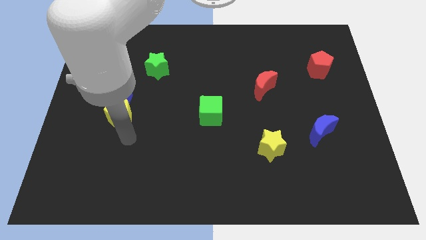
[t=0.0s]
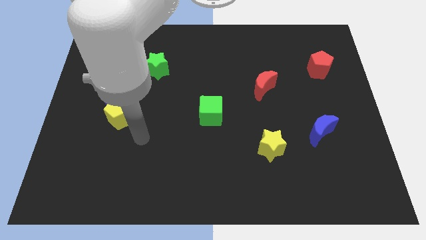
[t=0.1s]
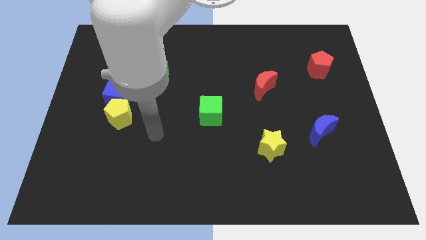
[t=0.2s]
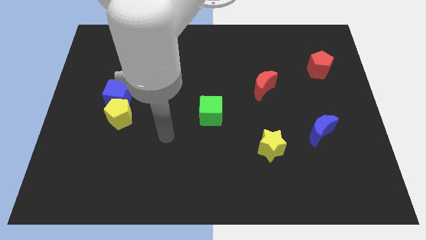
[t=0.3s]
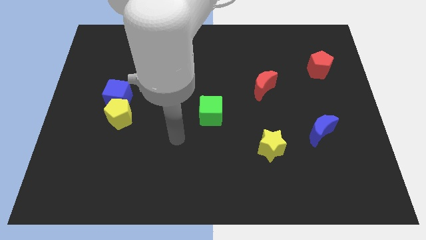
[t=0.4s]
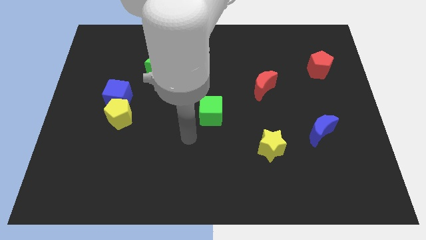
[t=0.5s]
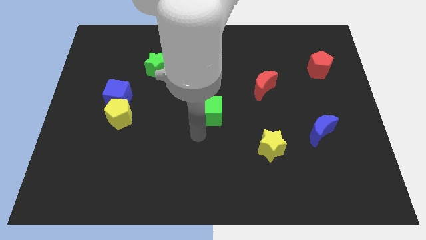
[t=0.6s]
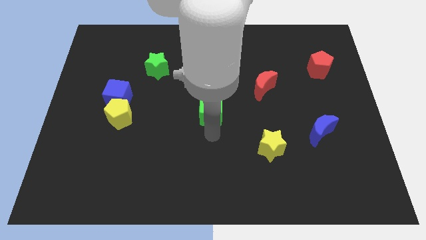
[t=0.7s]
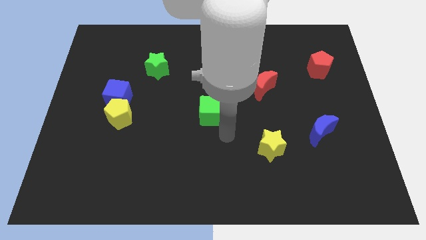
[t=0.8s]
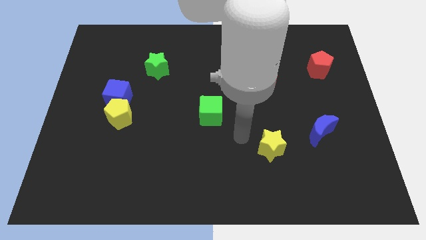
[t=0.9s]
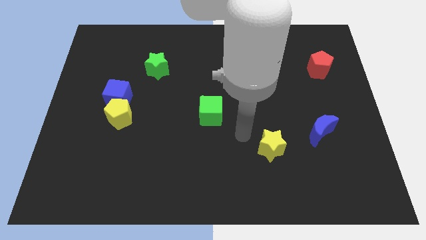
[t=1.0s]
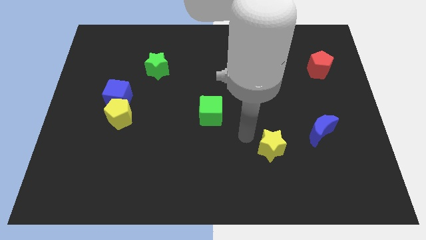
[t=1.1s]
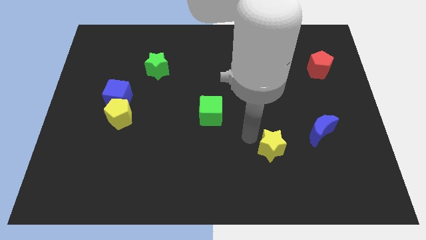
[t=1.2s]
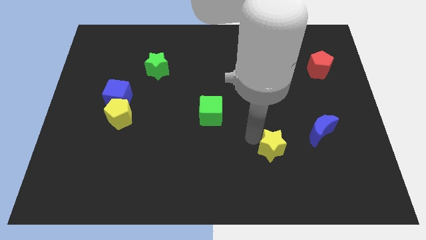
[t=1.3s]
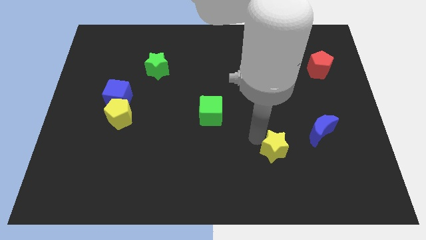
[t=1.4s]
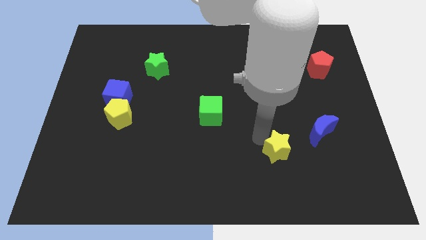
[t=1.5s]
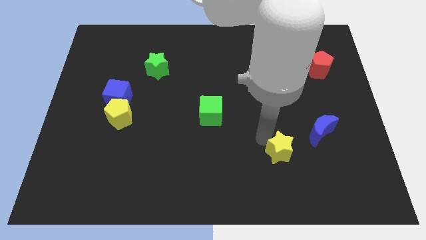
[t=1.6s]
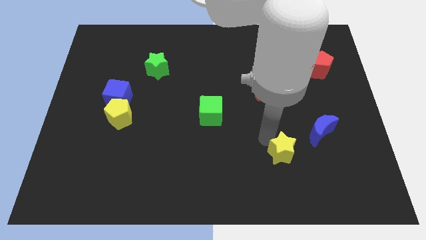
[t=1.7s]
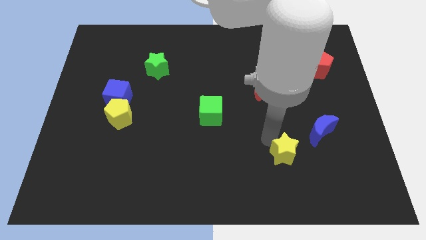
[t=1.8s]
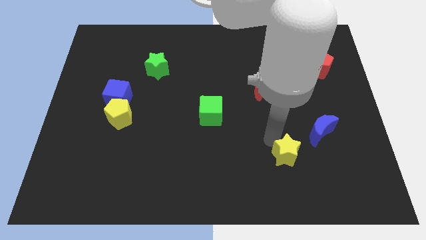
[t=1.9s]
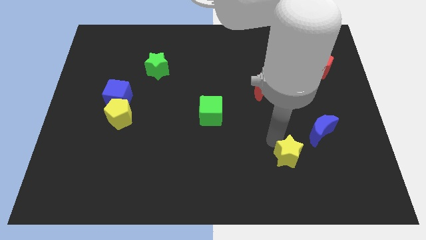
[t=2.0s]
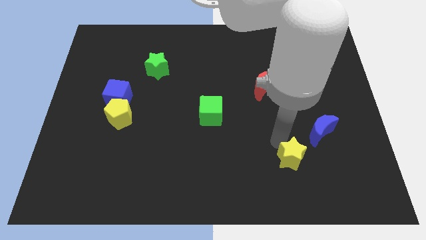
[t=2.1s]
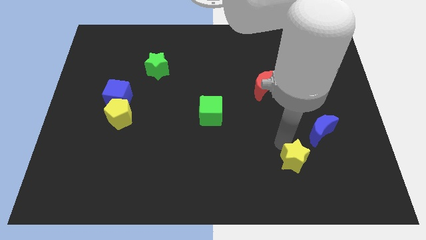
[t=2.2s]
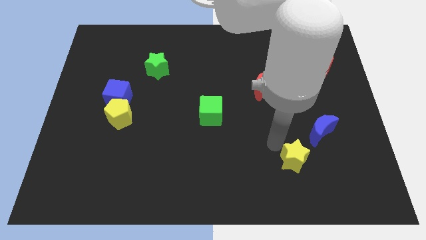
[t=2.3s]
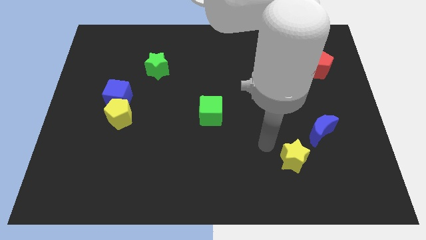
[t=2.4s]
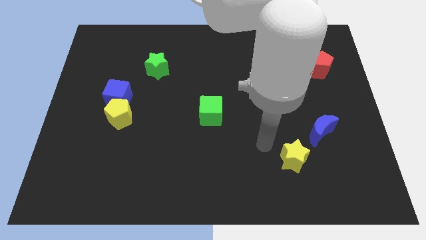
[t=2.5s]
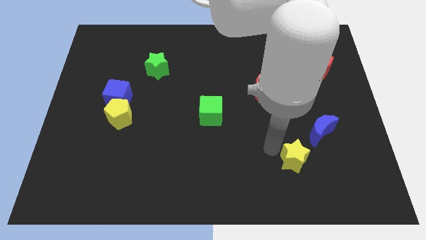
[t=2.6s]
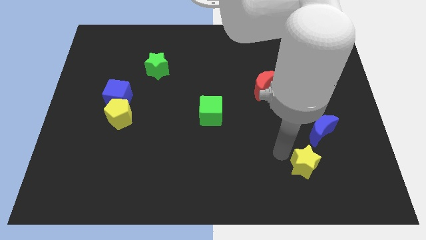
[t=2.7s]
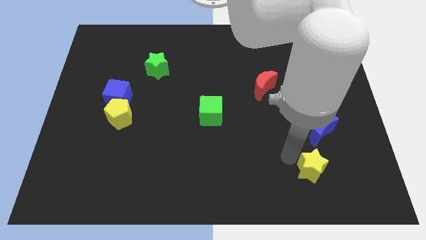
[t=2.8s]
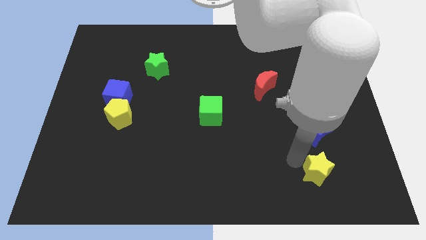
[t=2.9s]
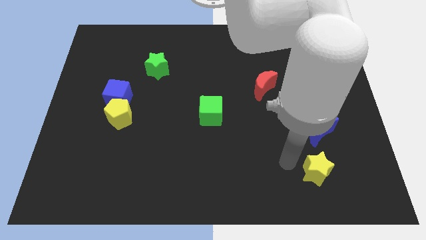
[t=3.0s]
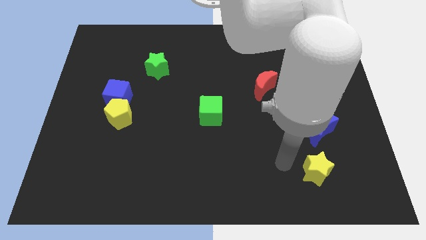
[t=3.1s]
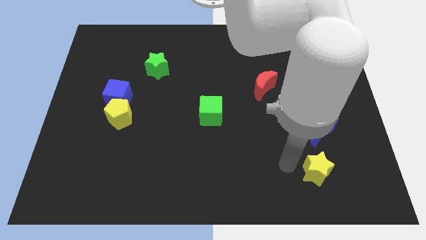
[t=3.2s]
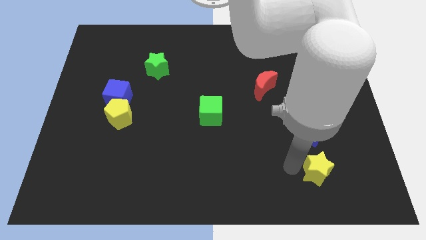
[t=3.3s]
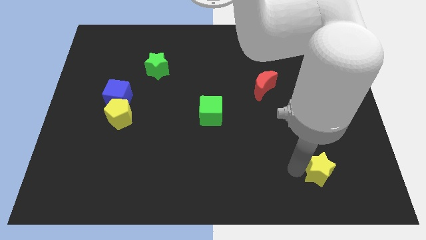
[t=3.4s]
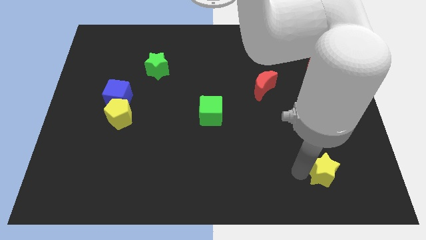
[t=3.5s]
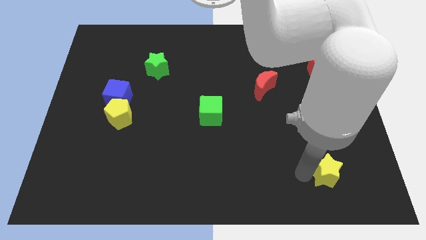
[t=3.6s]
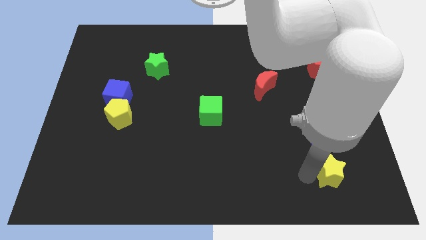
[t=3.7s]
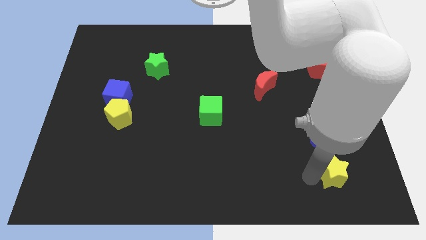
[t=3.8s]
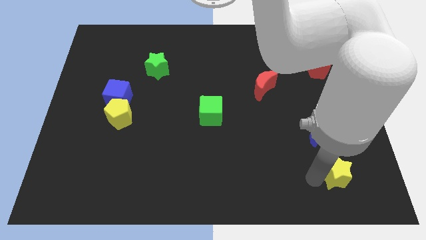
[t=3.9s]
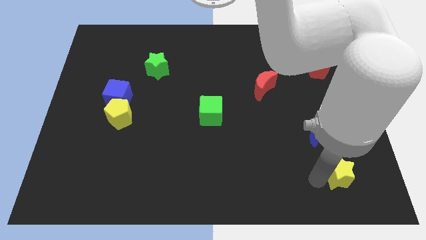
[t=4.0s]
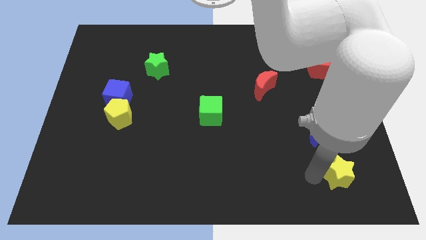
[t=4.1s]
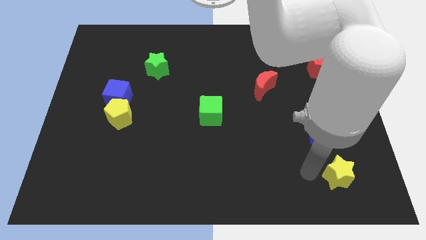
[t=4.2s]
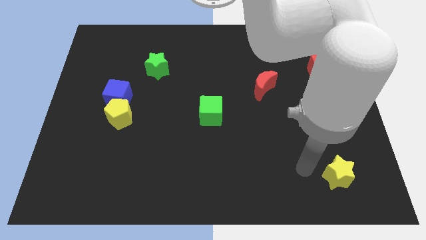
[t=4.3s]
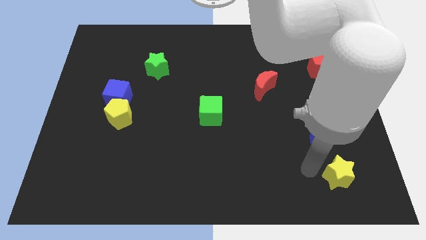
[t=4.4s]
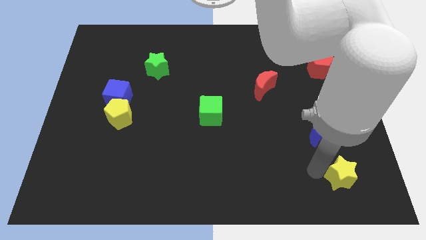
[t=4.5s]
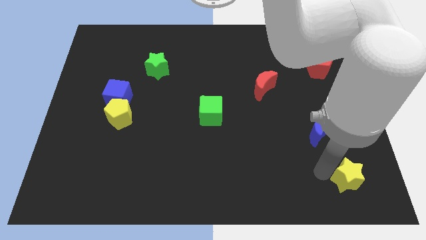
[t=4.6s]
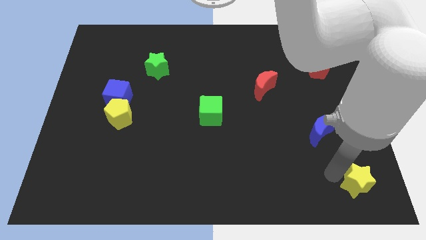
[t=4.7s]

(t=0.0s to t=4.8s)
slide the yellow star to the bottom right corner

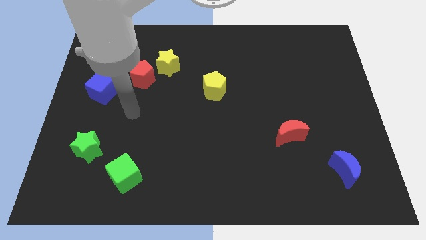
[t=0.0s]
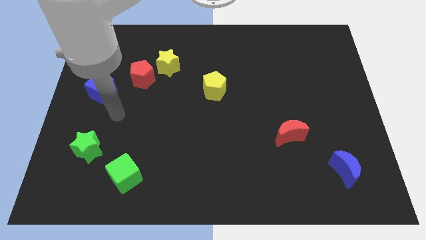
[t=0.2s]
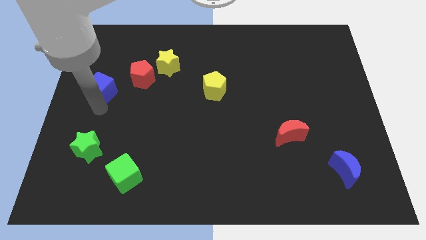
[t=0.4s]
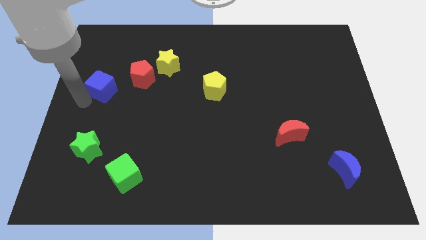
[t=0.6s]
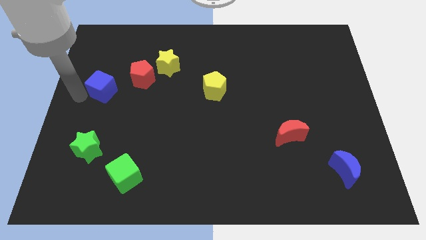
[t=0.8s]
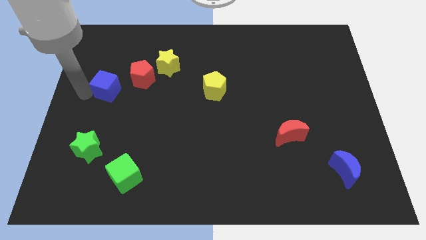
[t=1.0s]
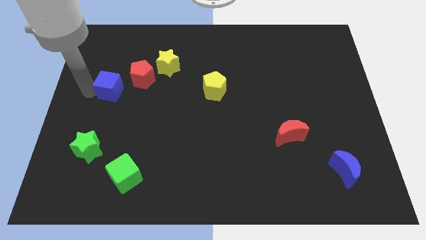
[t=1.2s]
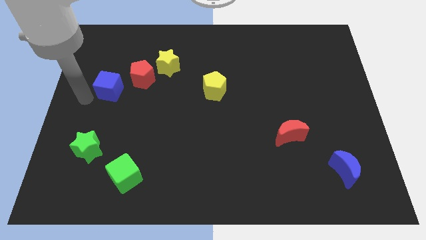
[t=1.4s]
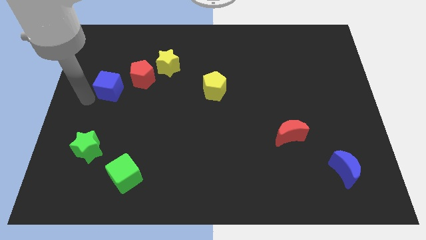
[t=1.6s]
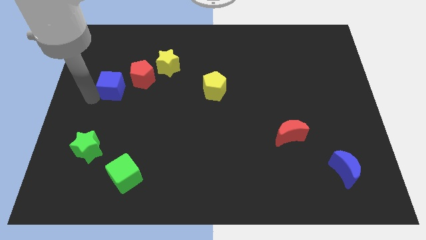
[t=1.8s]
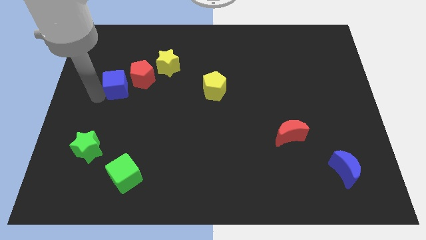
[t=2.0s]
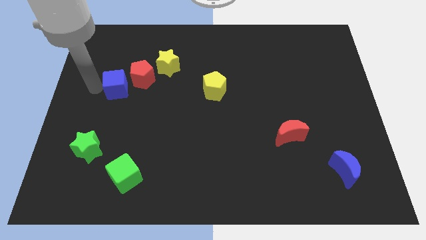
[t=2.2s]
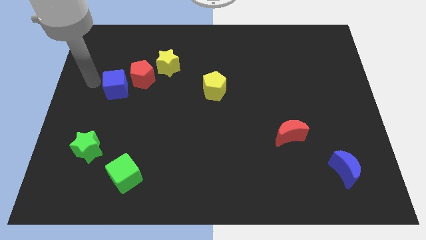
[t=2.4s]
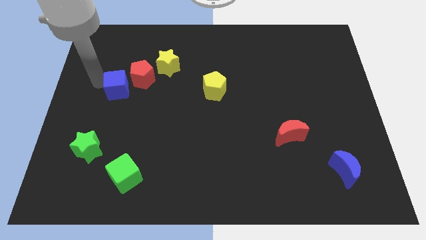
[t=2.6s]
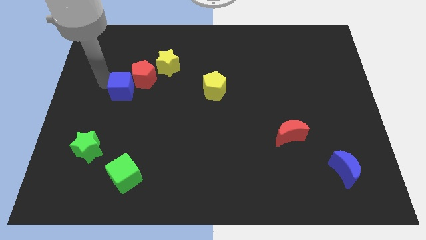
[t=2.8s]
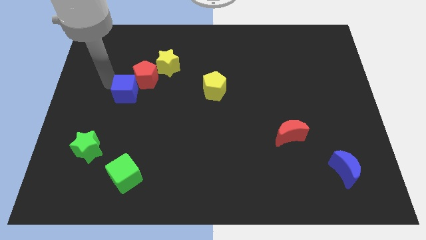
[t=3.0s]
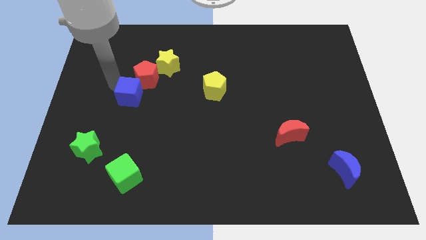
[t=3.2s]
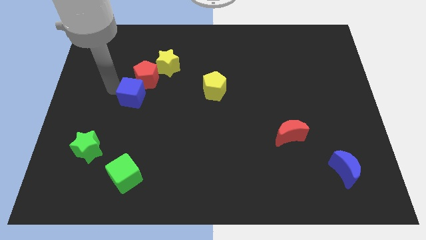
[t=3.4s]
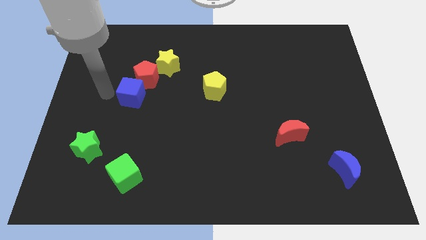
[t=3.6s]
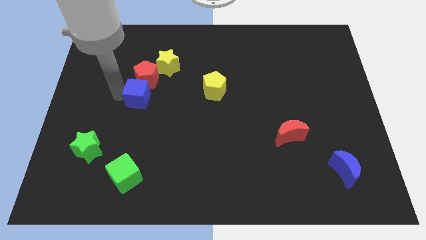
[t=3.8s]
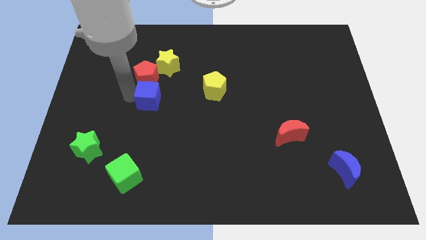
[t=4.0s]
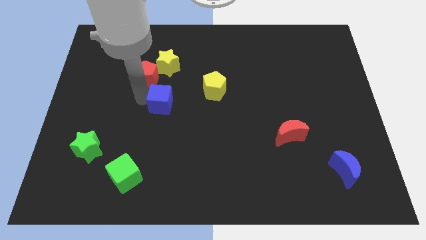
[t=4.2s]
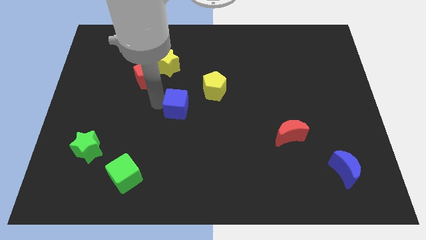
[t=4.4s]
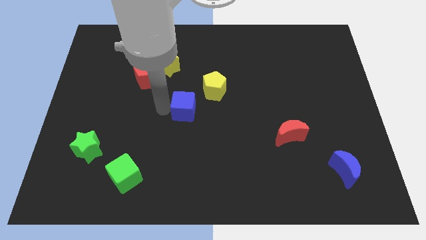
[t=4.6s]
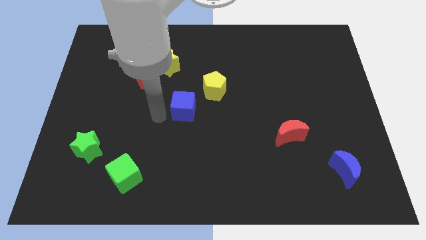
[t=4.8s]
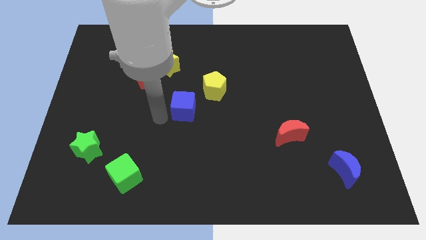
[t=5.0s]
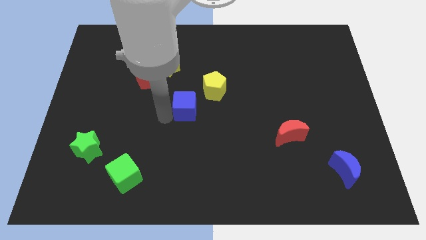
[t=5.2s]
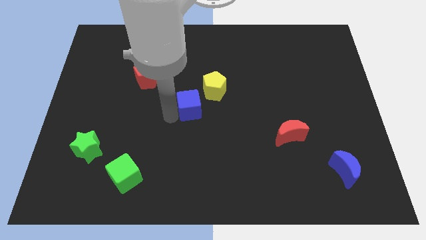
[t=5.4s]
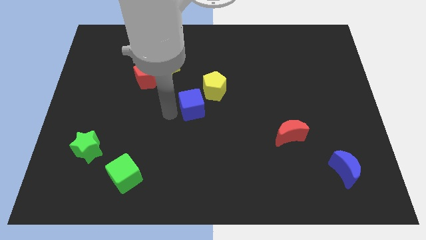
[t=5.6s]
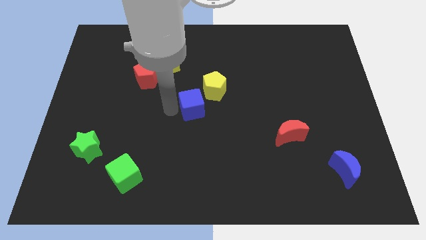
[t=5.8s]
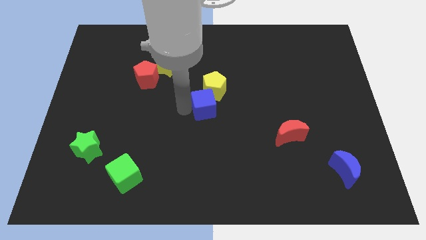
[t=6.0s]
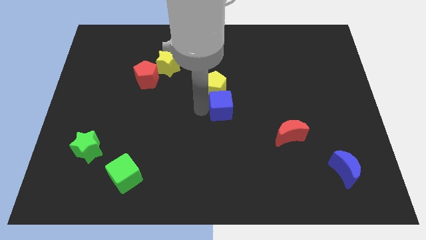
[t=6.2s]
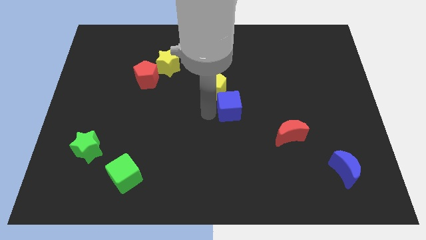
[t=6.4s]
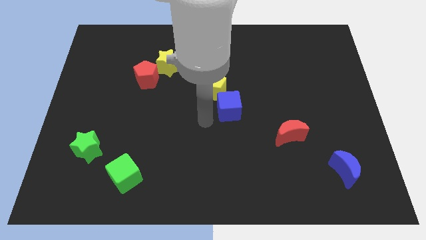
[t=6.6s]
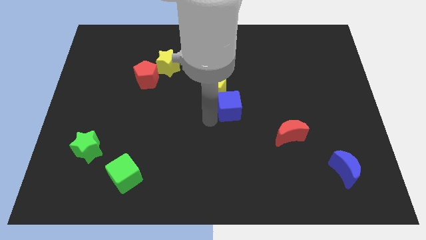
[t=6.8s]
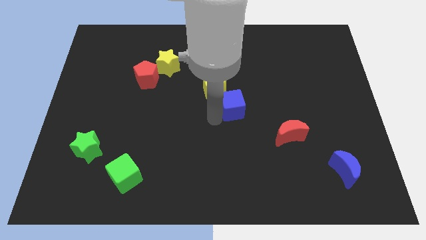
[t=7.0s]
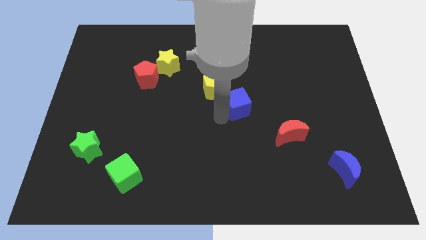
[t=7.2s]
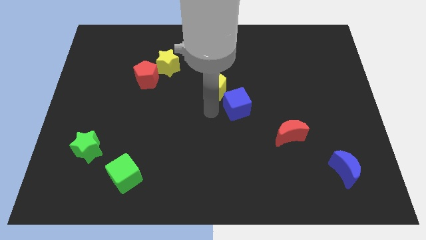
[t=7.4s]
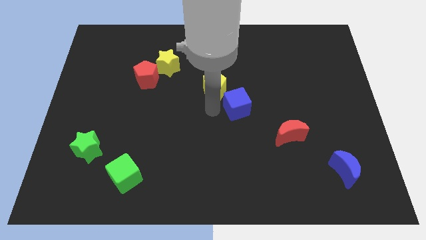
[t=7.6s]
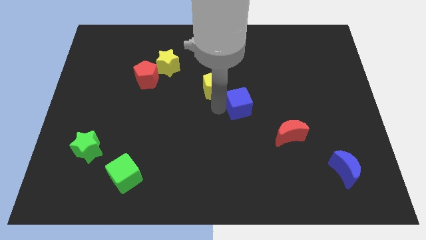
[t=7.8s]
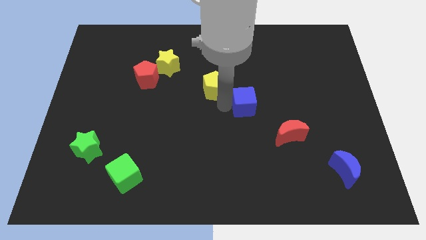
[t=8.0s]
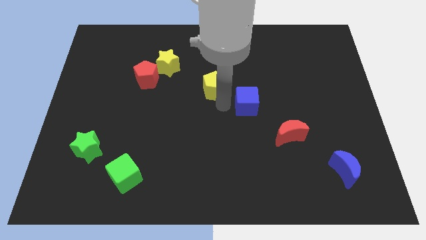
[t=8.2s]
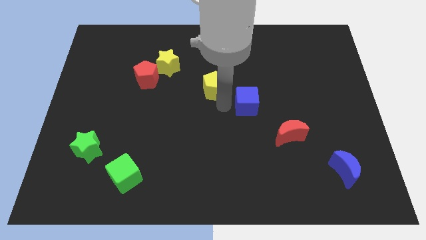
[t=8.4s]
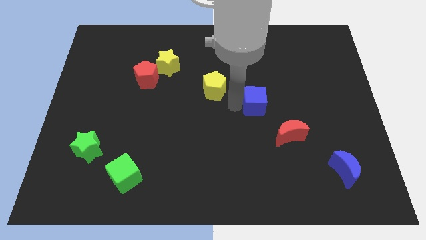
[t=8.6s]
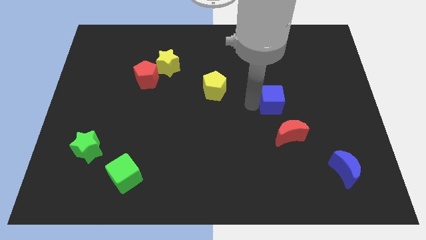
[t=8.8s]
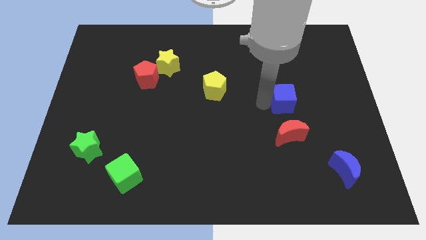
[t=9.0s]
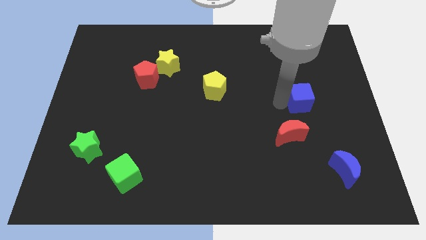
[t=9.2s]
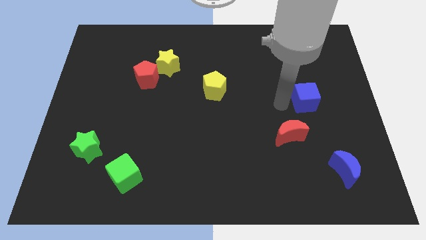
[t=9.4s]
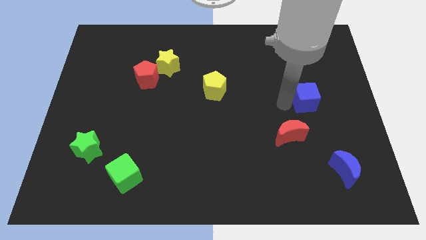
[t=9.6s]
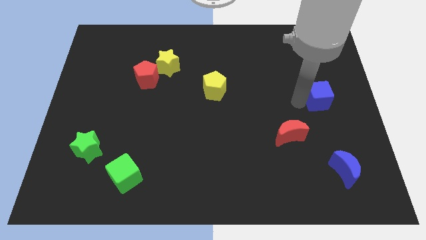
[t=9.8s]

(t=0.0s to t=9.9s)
push the blue cube to the center right
